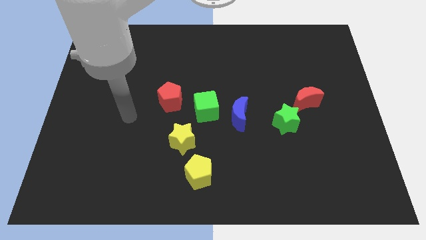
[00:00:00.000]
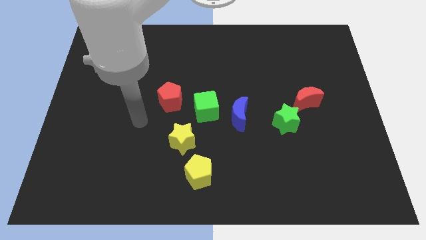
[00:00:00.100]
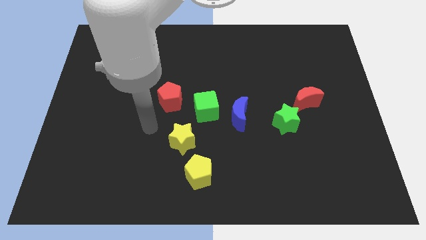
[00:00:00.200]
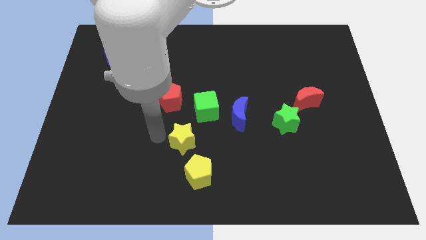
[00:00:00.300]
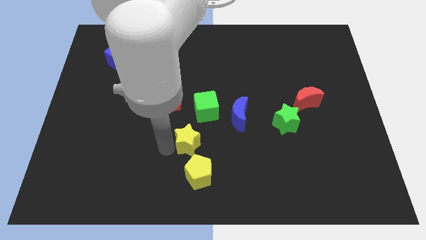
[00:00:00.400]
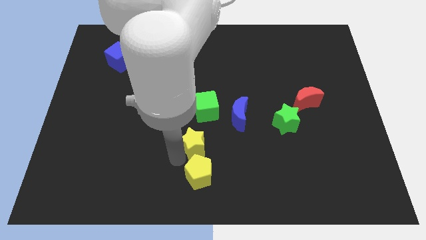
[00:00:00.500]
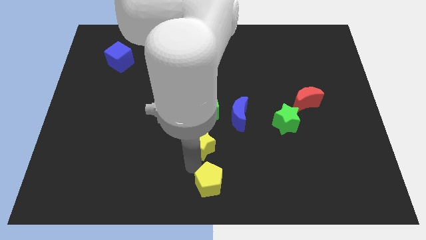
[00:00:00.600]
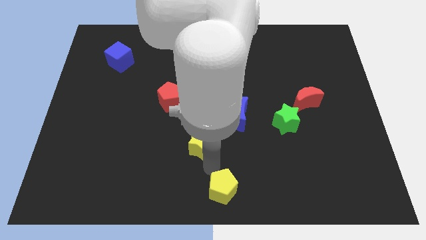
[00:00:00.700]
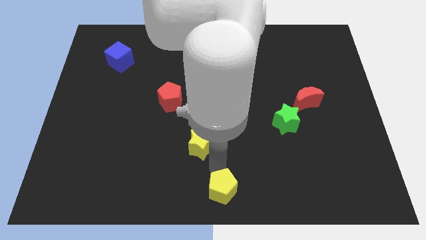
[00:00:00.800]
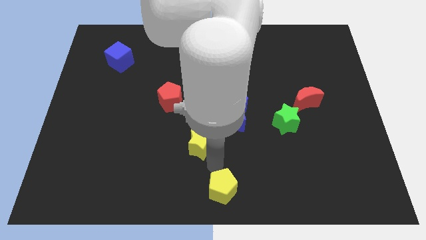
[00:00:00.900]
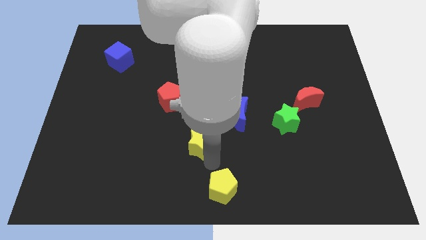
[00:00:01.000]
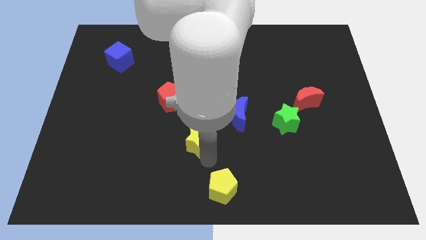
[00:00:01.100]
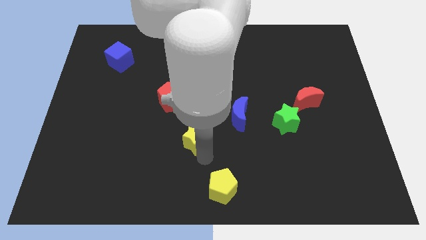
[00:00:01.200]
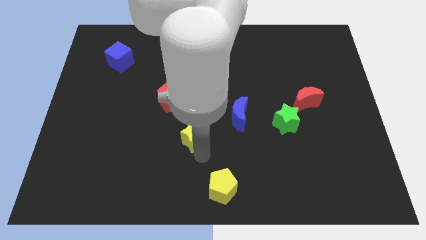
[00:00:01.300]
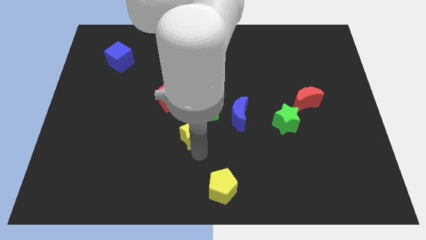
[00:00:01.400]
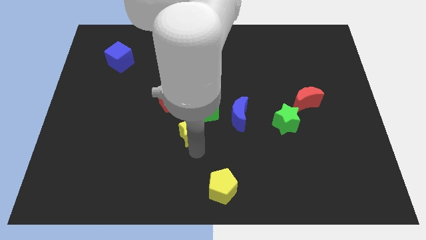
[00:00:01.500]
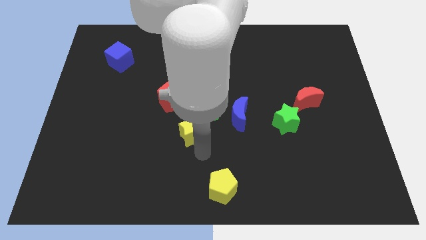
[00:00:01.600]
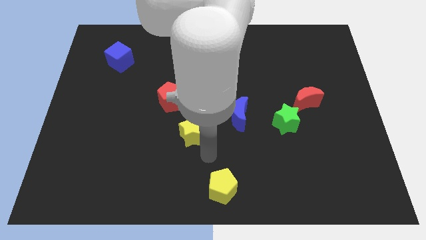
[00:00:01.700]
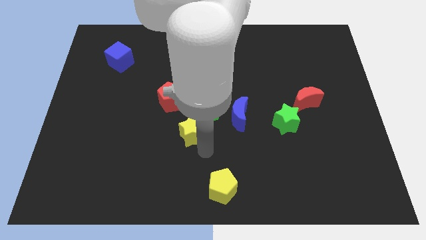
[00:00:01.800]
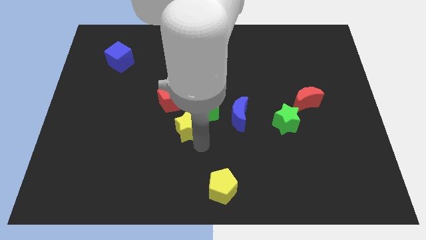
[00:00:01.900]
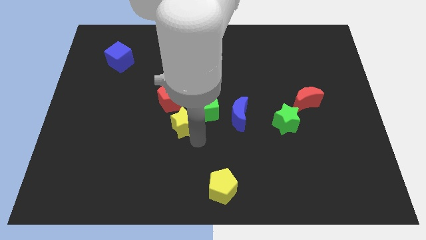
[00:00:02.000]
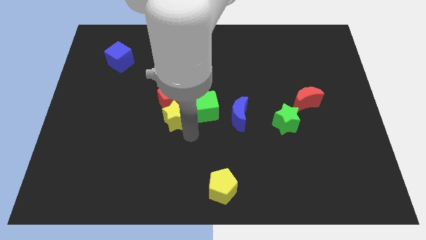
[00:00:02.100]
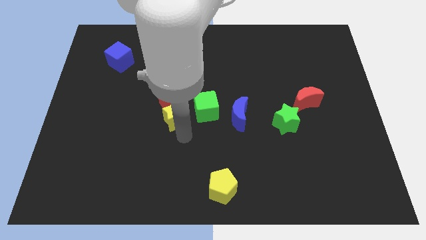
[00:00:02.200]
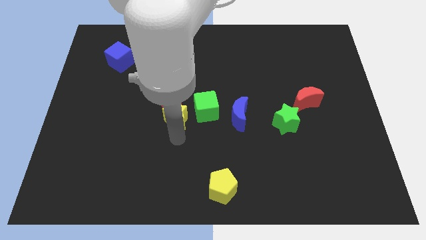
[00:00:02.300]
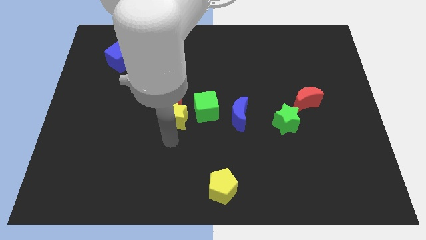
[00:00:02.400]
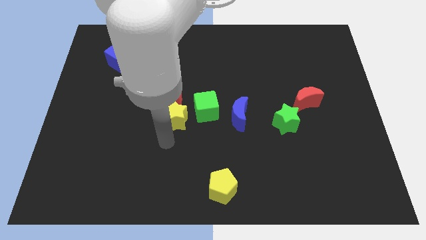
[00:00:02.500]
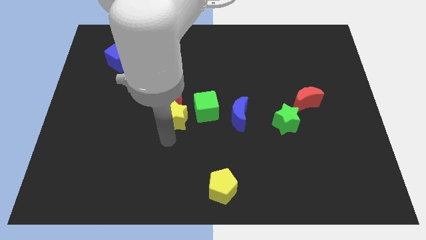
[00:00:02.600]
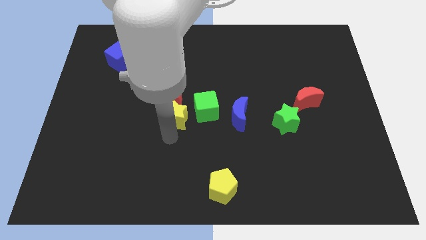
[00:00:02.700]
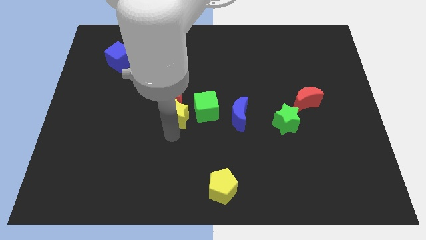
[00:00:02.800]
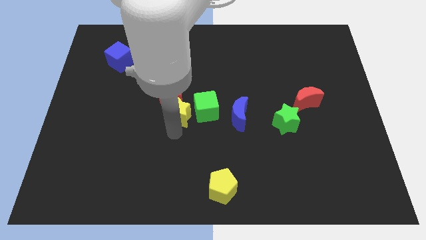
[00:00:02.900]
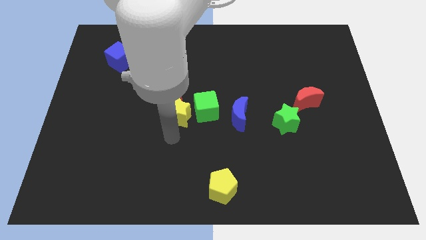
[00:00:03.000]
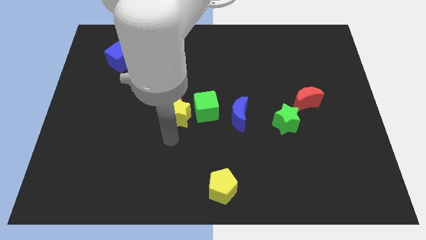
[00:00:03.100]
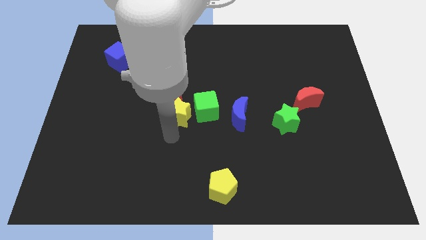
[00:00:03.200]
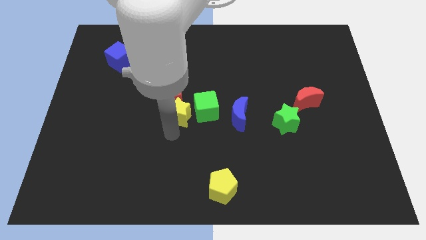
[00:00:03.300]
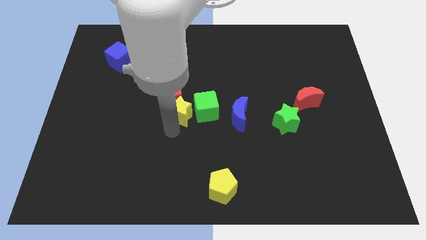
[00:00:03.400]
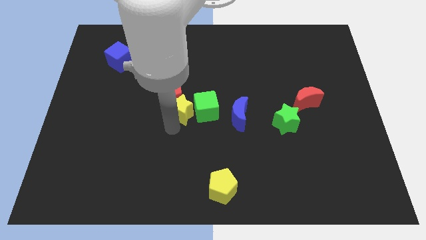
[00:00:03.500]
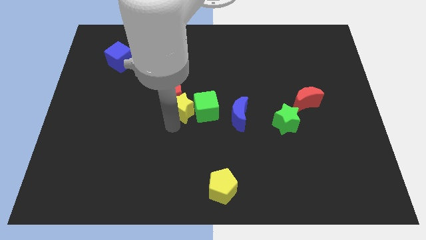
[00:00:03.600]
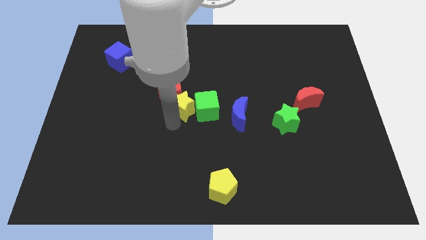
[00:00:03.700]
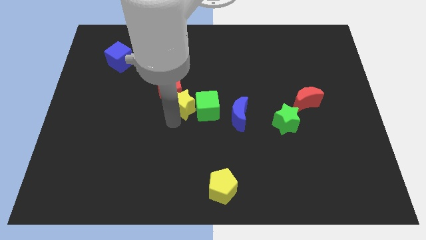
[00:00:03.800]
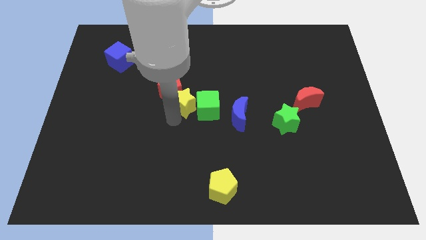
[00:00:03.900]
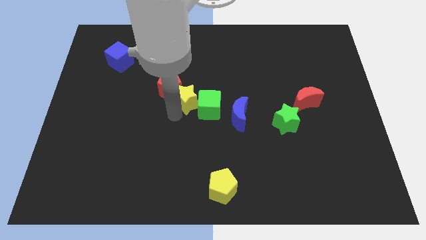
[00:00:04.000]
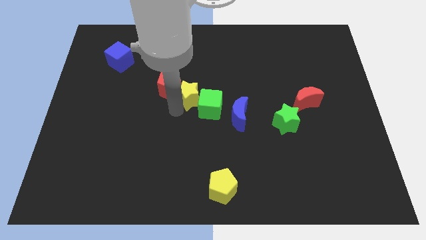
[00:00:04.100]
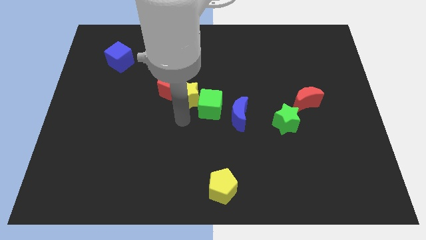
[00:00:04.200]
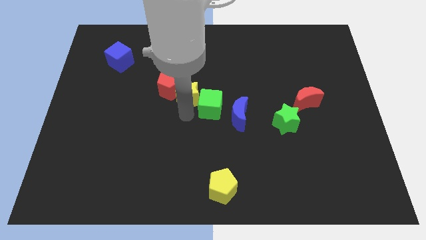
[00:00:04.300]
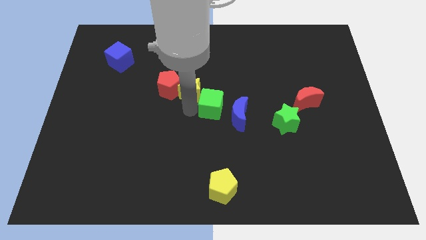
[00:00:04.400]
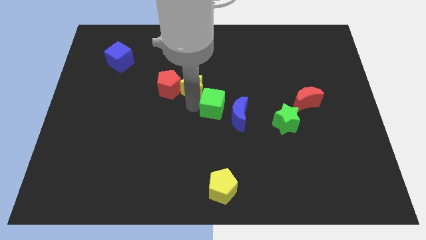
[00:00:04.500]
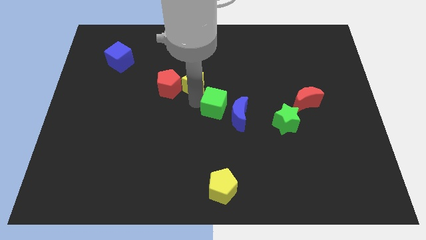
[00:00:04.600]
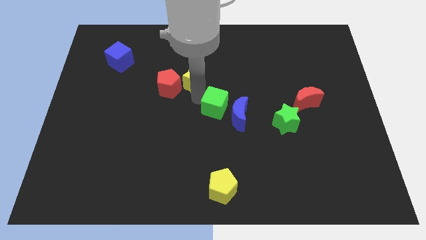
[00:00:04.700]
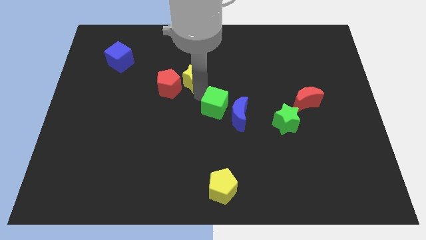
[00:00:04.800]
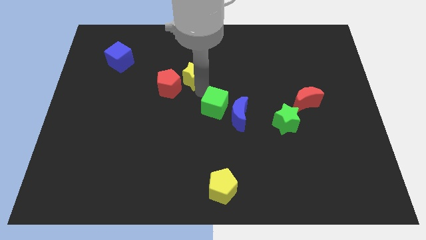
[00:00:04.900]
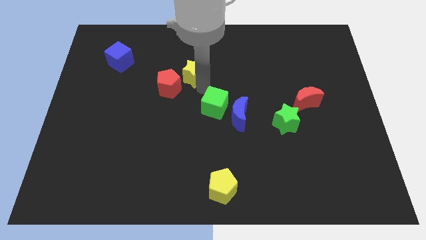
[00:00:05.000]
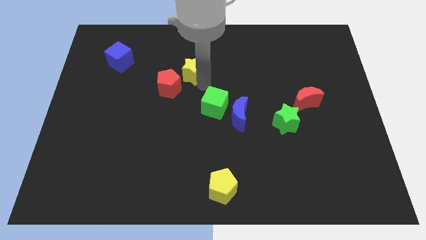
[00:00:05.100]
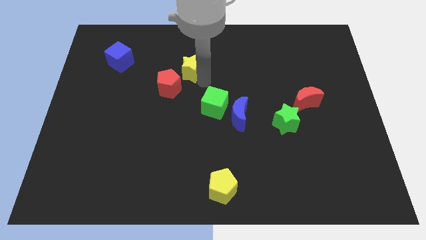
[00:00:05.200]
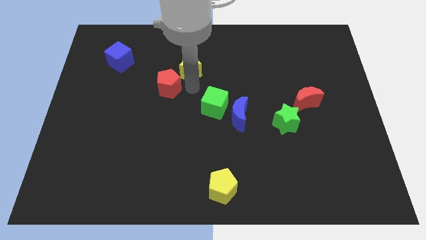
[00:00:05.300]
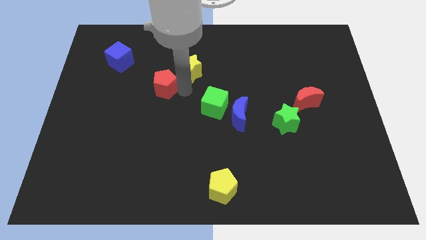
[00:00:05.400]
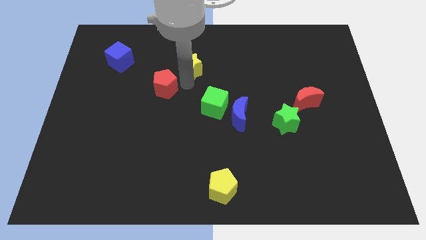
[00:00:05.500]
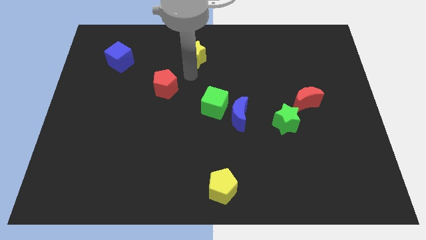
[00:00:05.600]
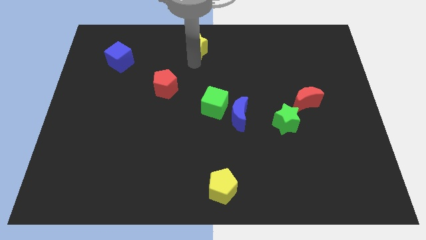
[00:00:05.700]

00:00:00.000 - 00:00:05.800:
push the yellow star to the towards your base
